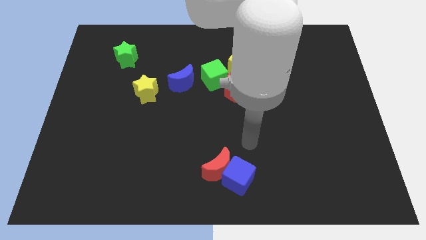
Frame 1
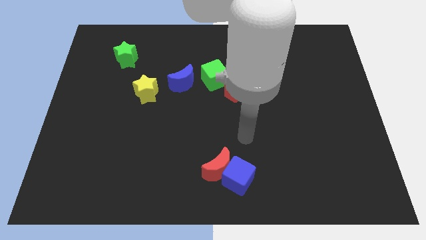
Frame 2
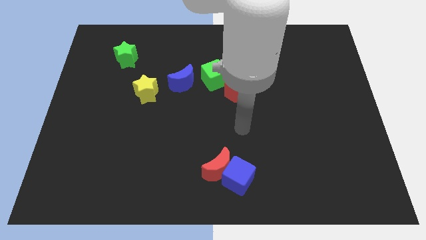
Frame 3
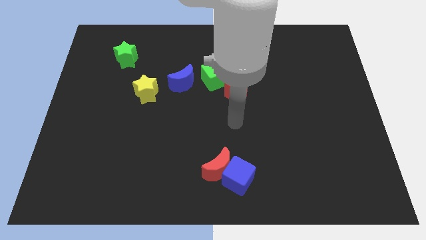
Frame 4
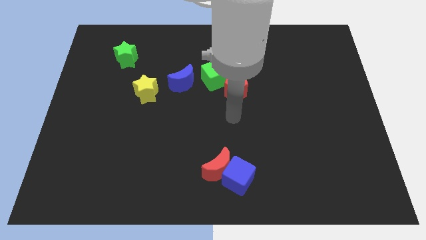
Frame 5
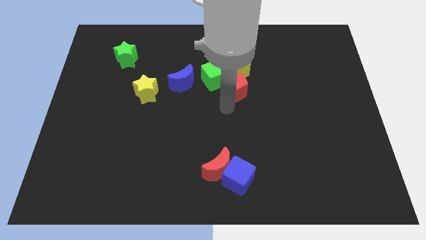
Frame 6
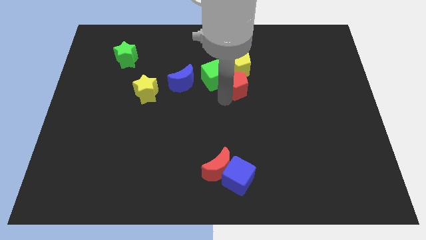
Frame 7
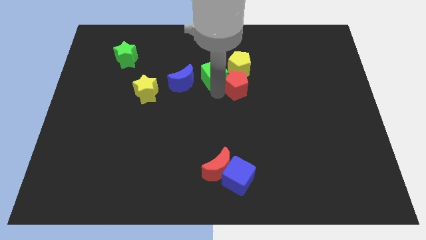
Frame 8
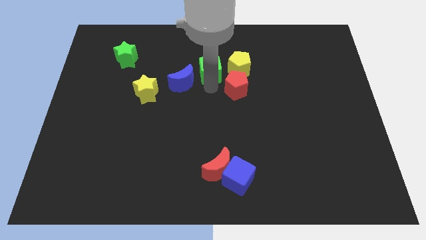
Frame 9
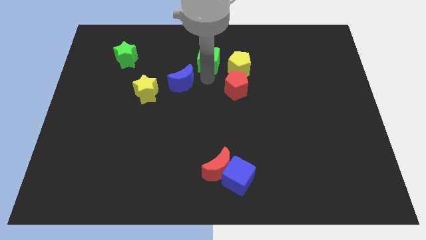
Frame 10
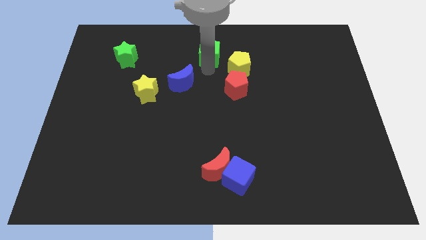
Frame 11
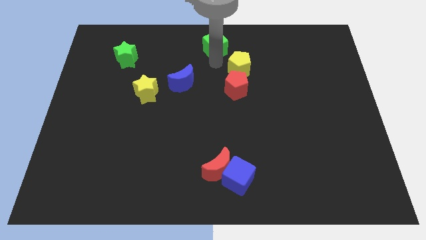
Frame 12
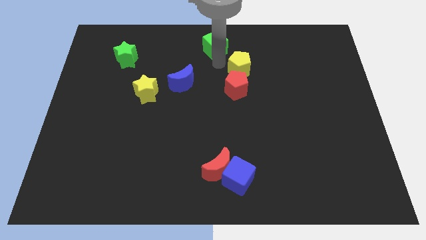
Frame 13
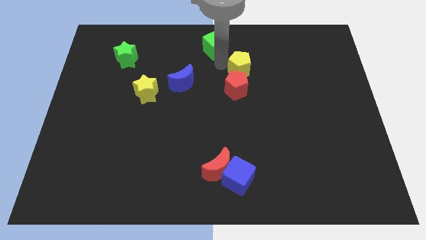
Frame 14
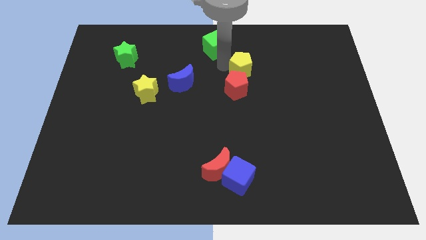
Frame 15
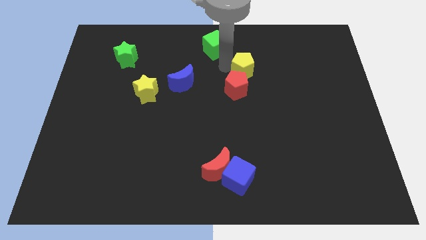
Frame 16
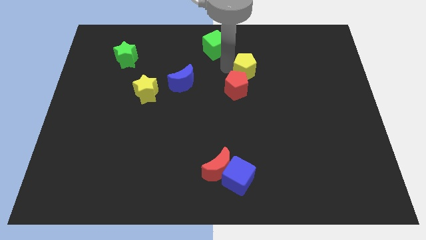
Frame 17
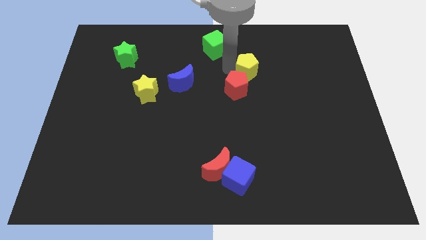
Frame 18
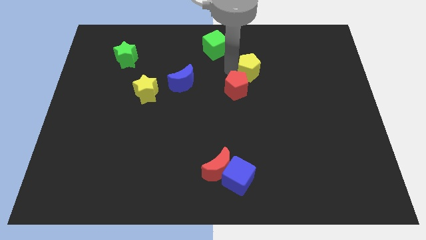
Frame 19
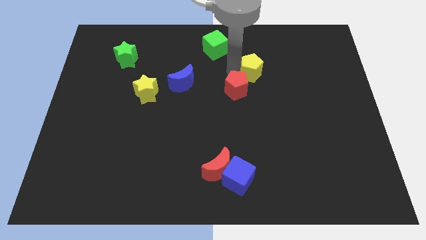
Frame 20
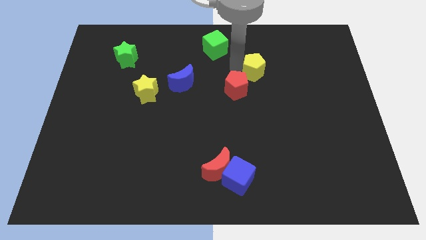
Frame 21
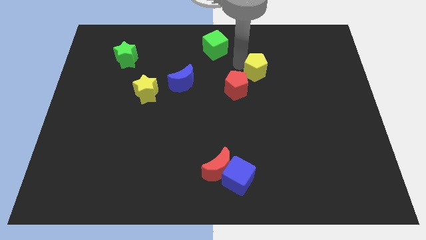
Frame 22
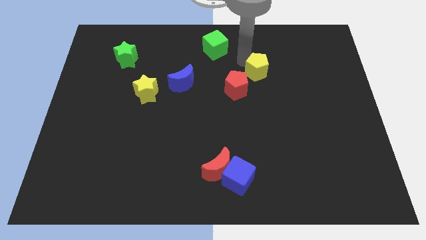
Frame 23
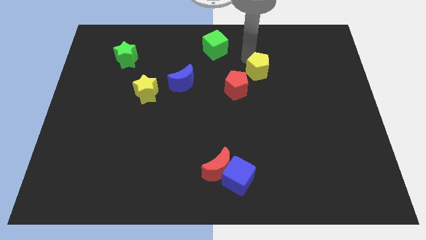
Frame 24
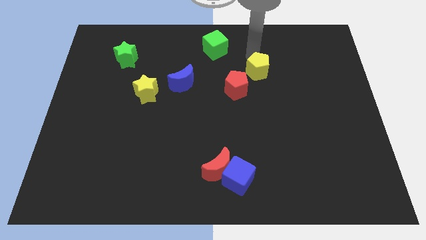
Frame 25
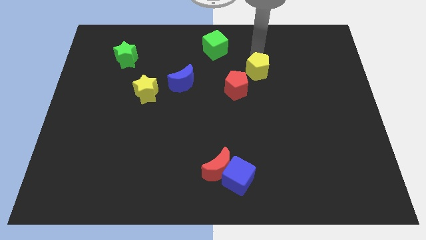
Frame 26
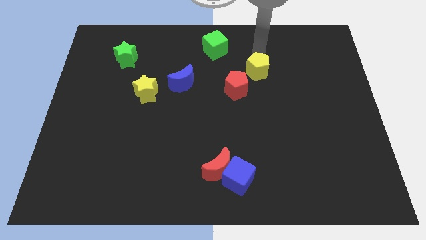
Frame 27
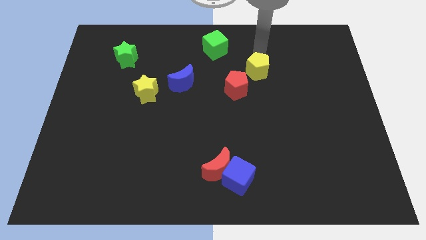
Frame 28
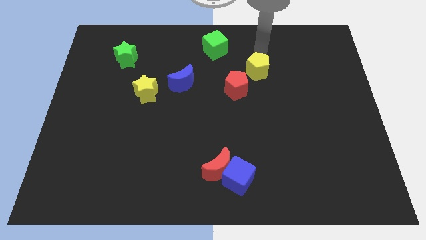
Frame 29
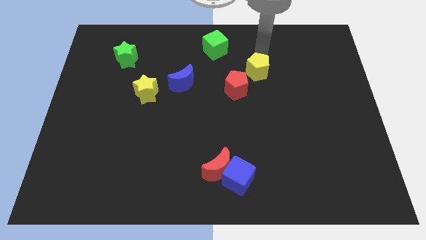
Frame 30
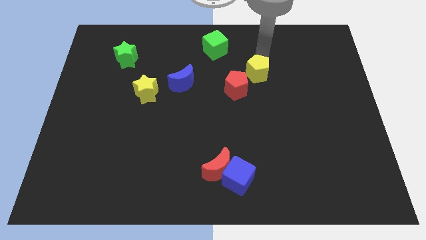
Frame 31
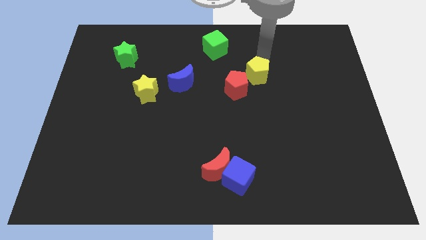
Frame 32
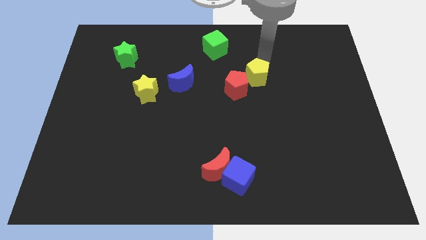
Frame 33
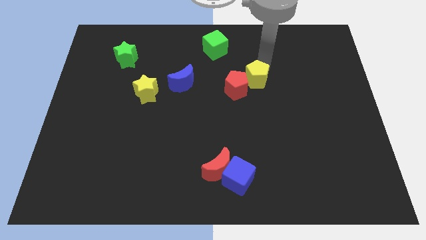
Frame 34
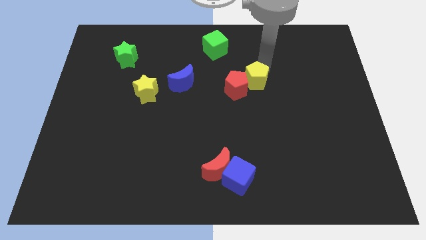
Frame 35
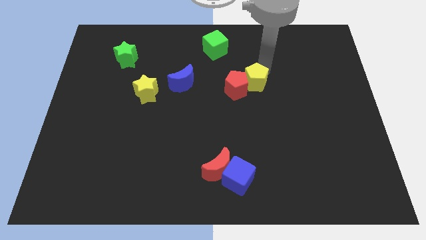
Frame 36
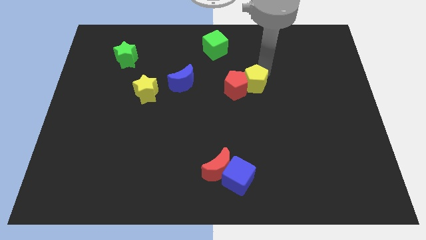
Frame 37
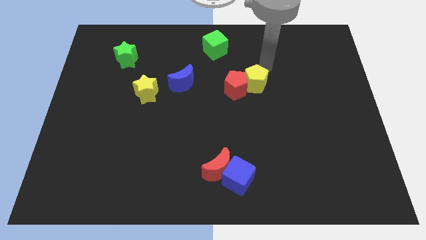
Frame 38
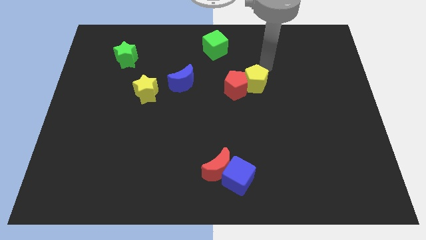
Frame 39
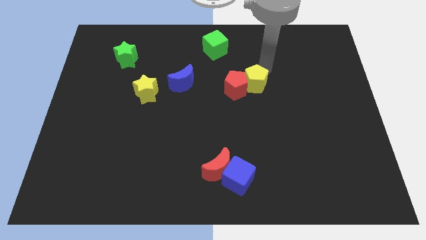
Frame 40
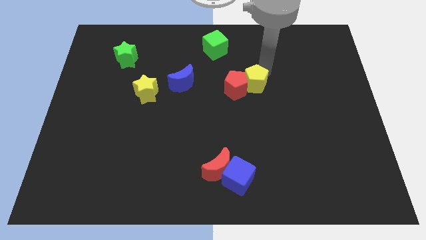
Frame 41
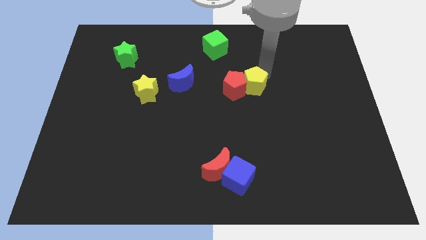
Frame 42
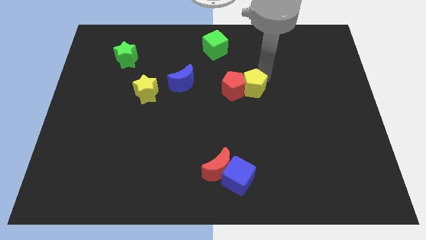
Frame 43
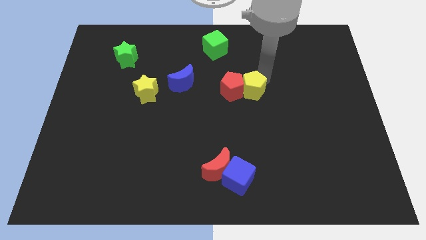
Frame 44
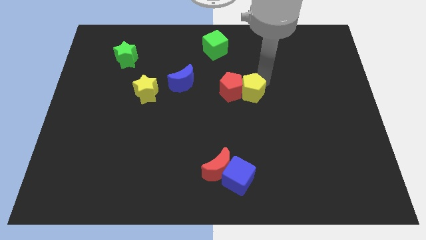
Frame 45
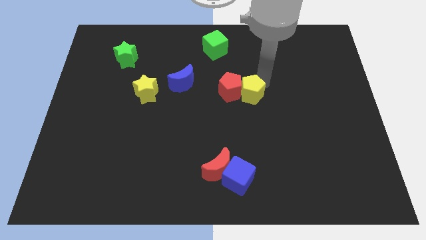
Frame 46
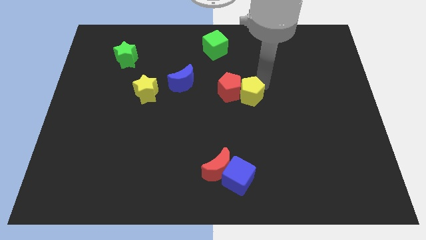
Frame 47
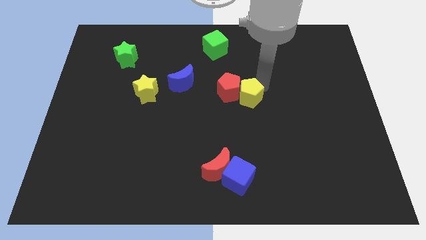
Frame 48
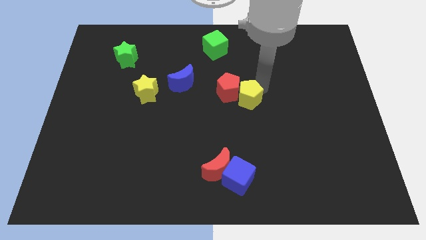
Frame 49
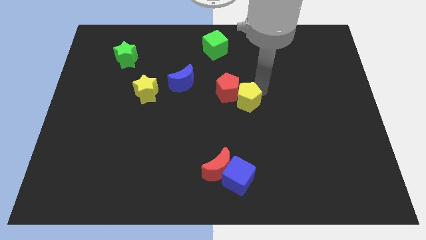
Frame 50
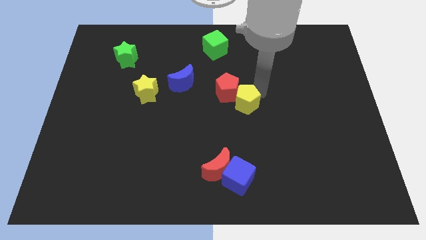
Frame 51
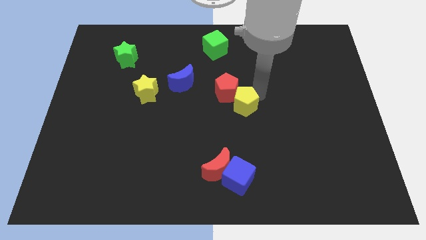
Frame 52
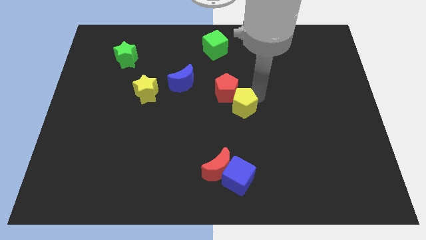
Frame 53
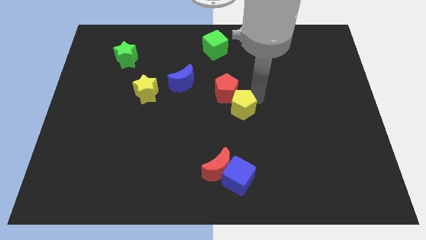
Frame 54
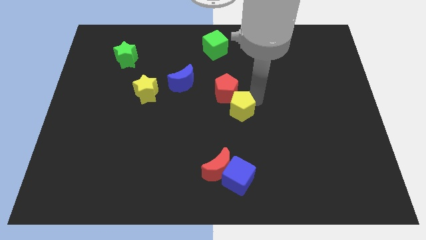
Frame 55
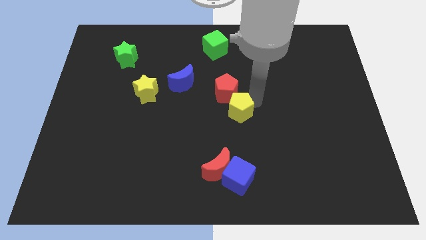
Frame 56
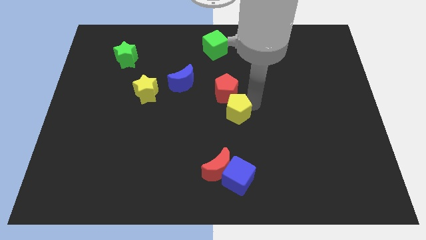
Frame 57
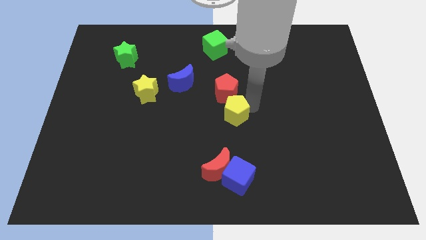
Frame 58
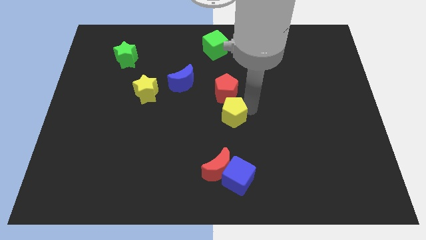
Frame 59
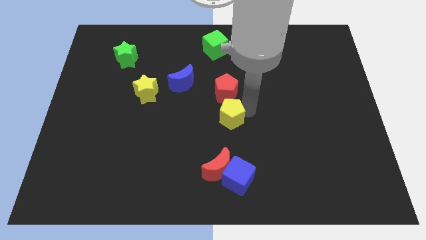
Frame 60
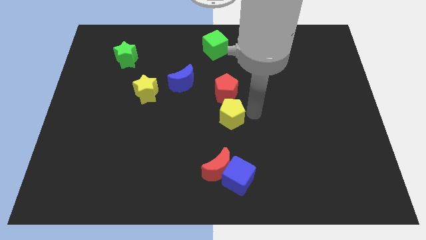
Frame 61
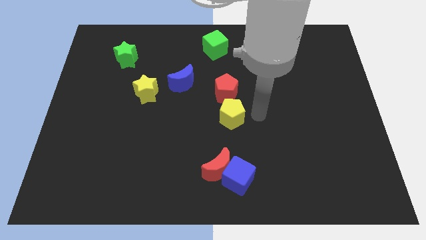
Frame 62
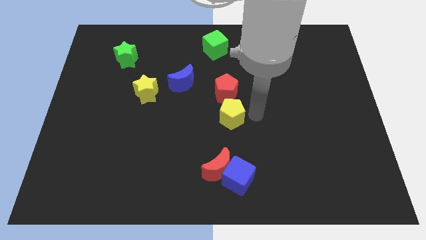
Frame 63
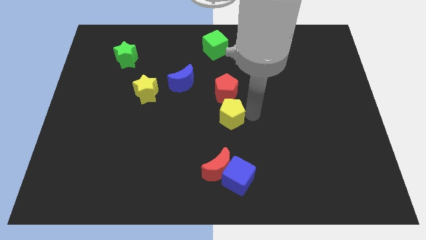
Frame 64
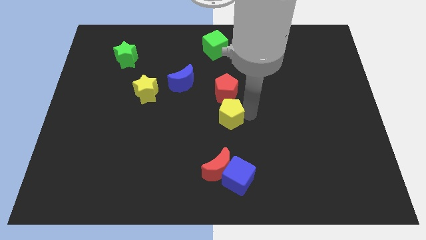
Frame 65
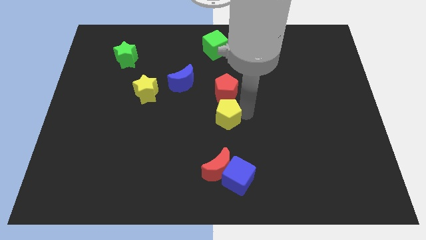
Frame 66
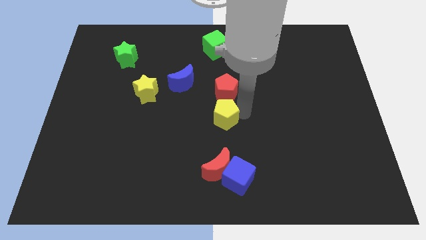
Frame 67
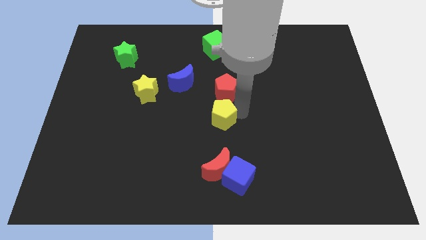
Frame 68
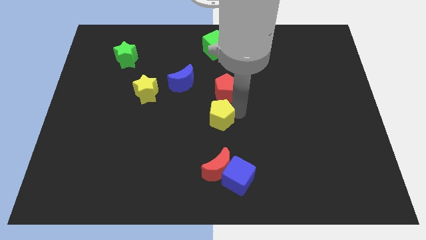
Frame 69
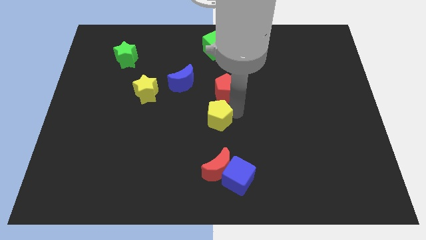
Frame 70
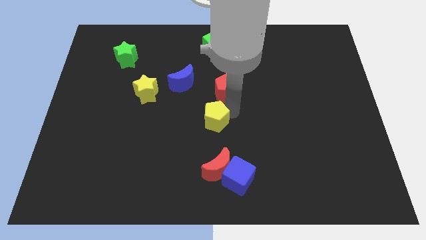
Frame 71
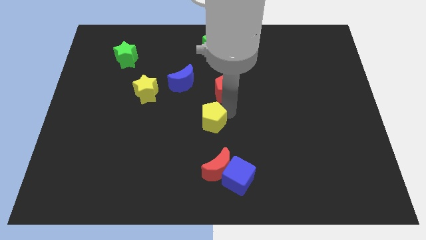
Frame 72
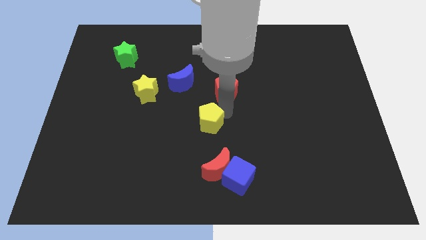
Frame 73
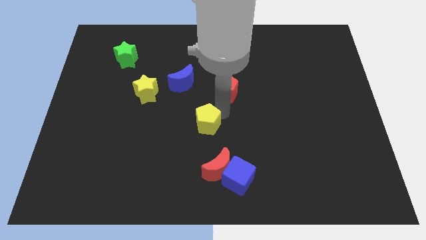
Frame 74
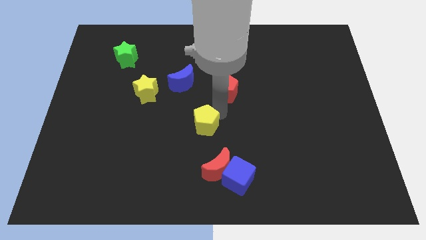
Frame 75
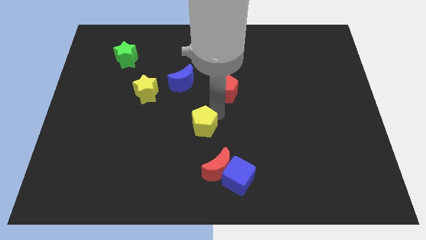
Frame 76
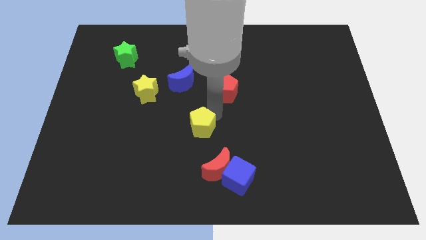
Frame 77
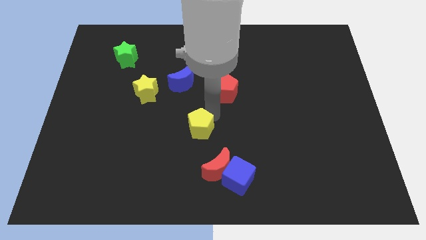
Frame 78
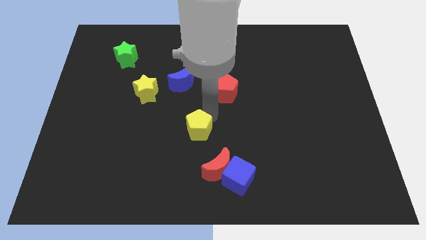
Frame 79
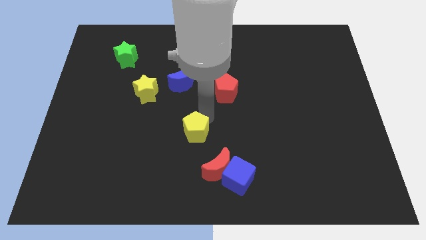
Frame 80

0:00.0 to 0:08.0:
push the yellow pentagon downwards and left

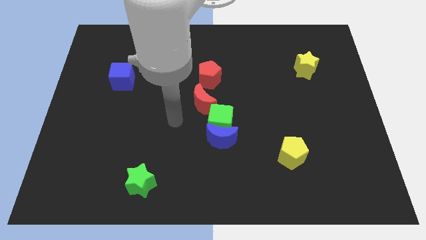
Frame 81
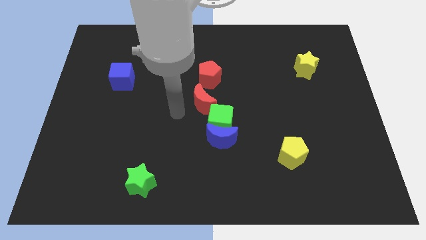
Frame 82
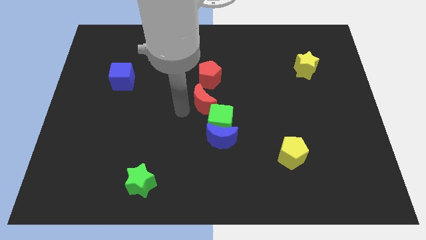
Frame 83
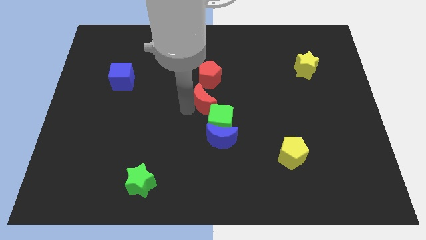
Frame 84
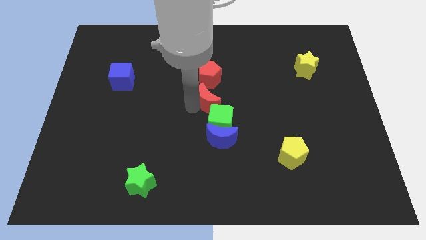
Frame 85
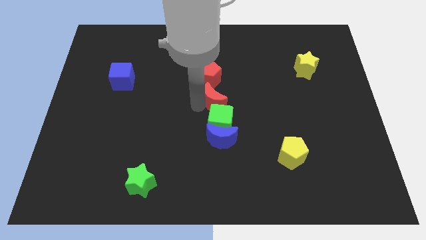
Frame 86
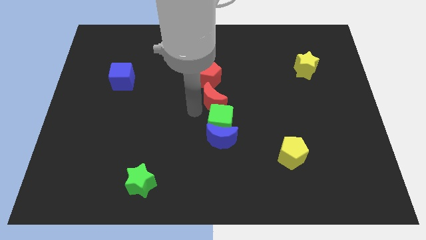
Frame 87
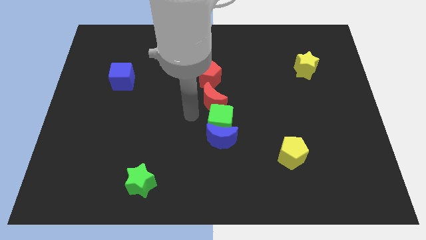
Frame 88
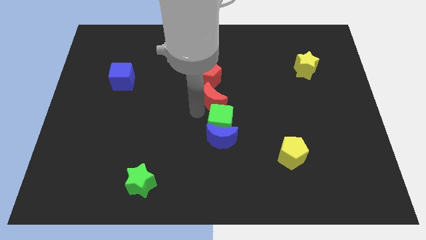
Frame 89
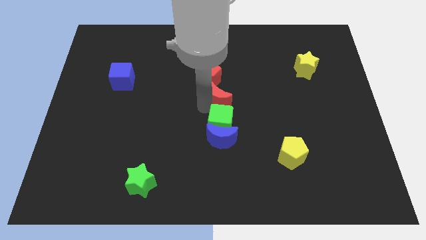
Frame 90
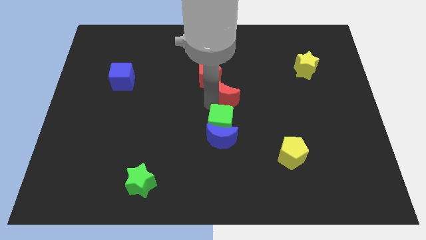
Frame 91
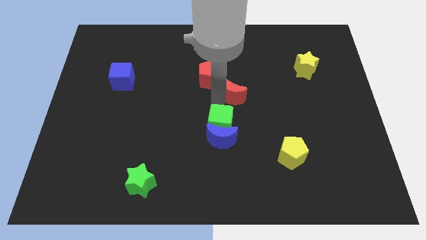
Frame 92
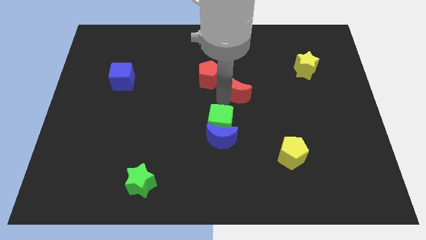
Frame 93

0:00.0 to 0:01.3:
slightly move the red moon upwards and right diagonally
